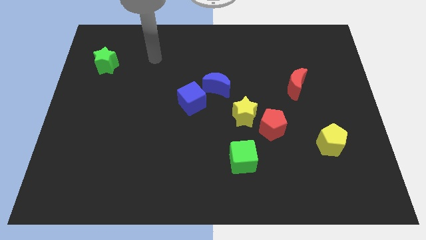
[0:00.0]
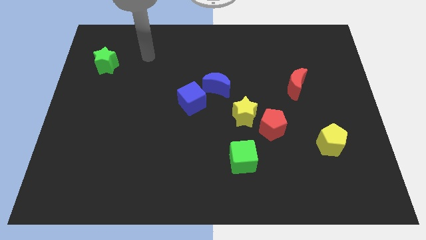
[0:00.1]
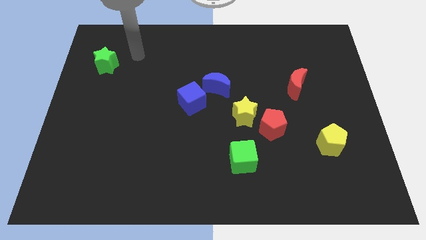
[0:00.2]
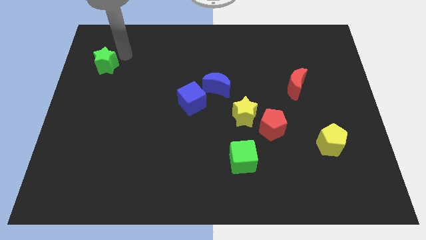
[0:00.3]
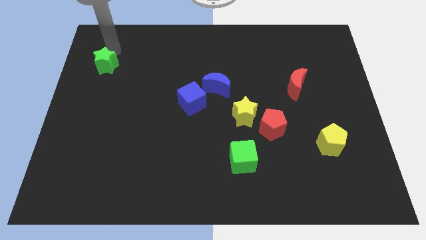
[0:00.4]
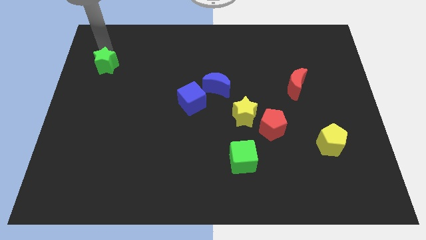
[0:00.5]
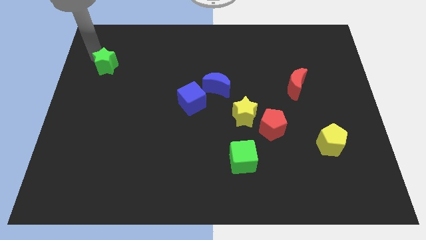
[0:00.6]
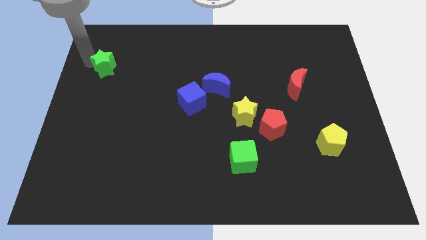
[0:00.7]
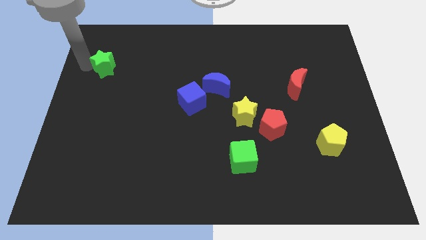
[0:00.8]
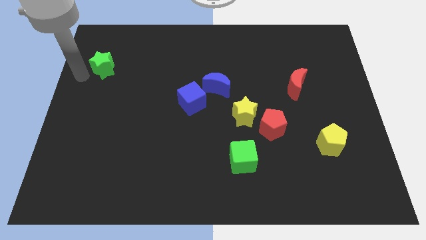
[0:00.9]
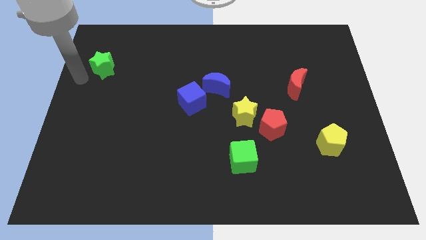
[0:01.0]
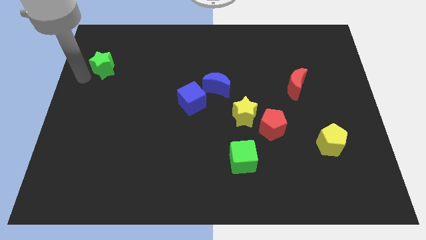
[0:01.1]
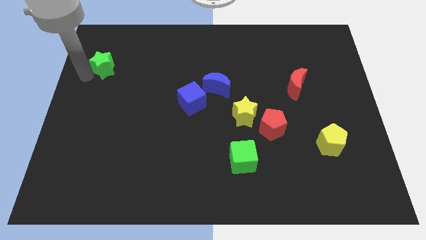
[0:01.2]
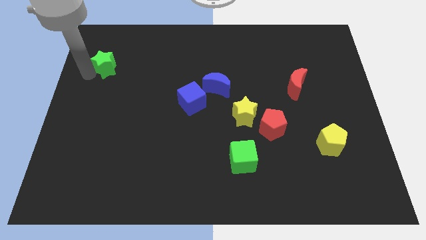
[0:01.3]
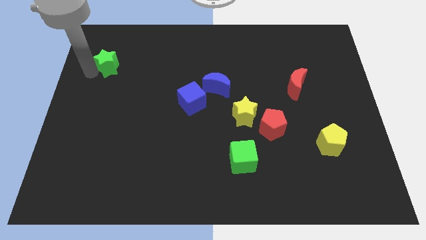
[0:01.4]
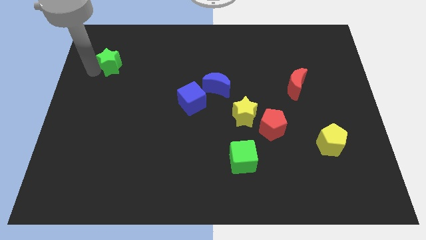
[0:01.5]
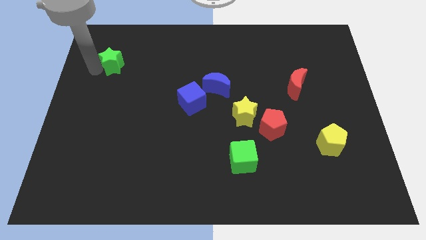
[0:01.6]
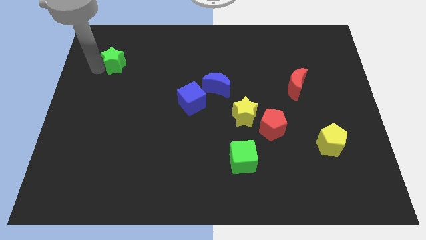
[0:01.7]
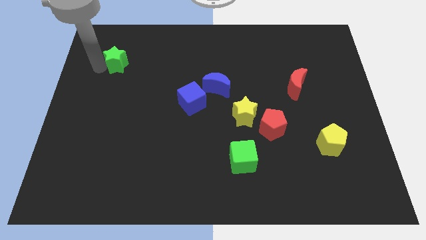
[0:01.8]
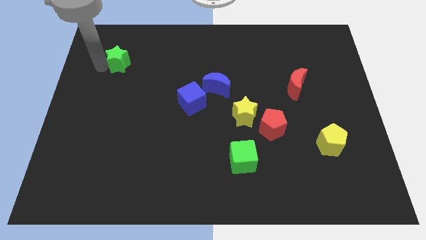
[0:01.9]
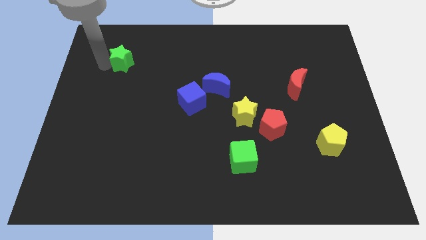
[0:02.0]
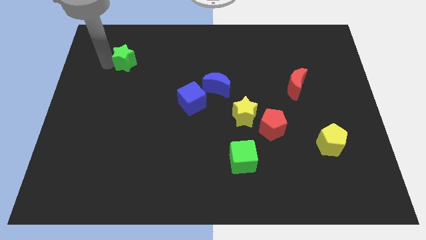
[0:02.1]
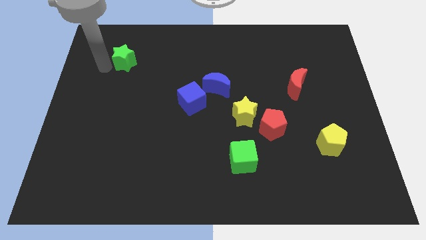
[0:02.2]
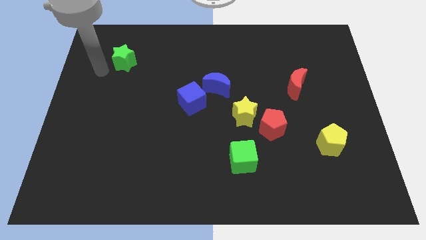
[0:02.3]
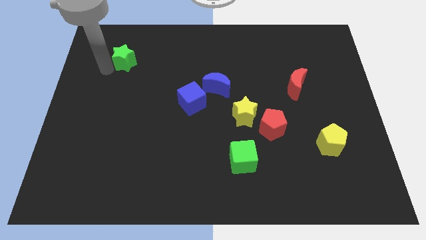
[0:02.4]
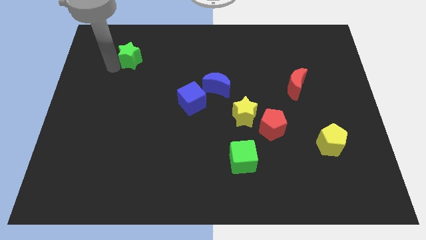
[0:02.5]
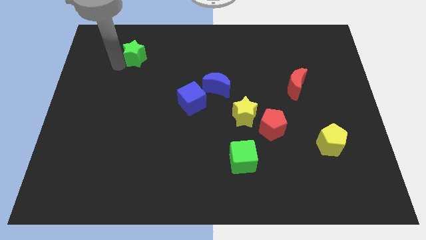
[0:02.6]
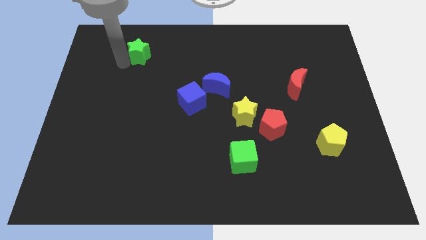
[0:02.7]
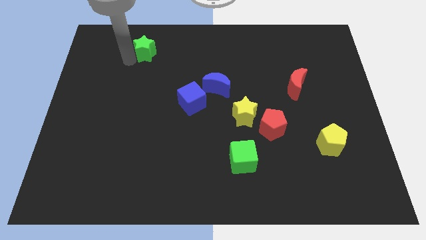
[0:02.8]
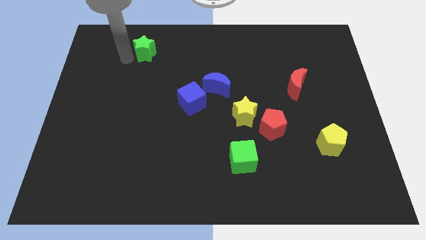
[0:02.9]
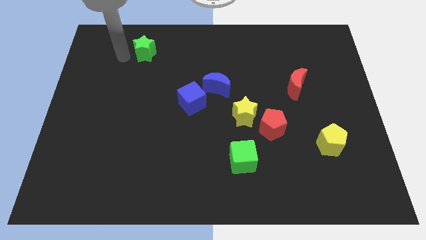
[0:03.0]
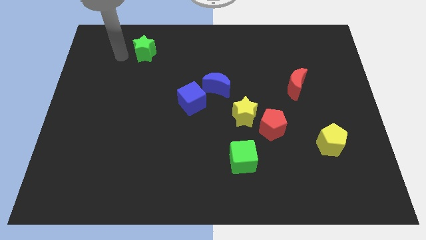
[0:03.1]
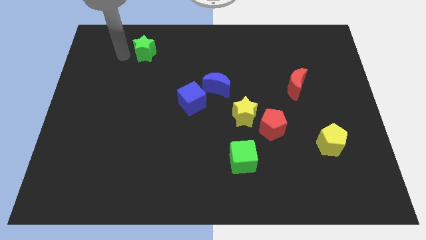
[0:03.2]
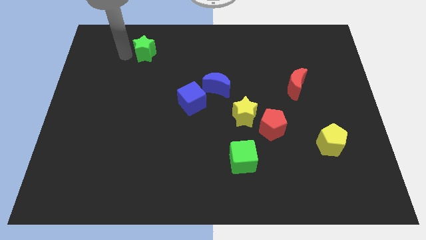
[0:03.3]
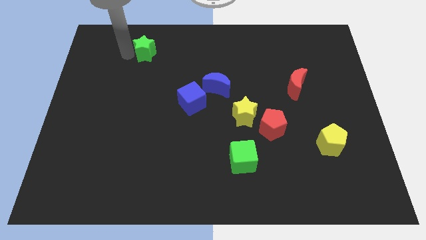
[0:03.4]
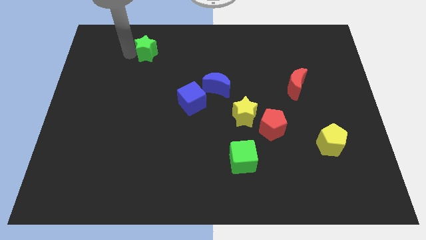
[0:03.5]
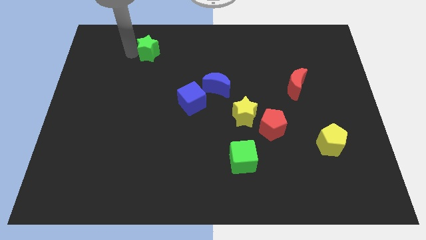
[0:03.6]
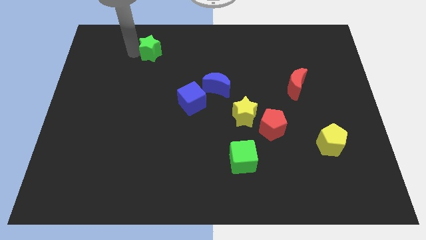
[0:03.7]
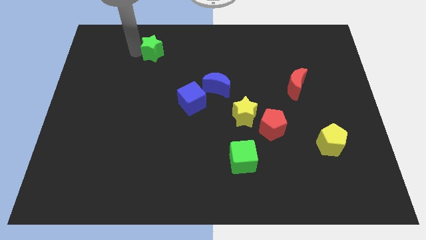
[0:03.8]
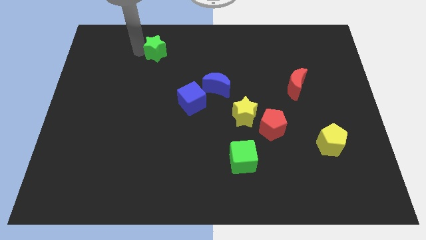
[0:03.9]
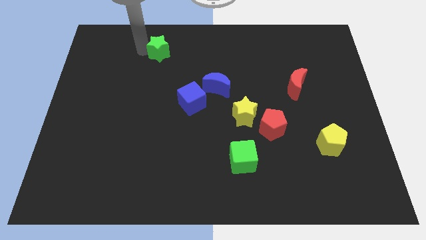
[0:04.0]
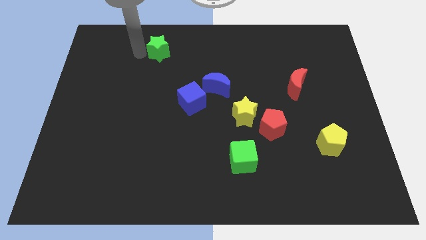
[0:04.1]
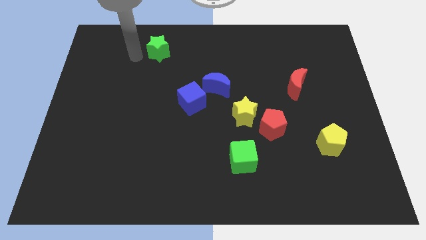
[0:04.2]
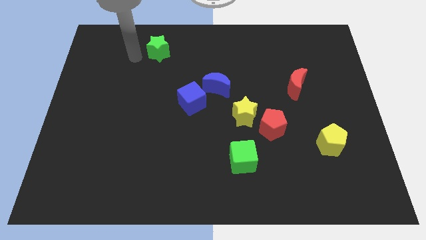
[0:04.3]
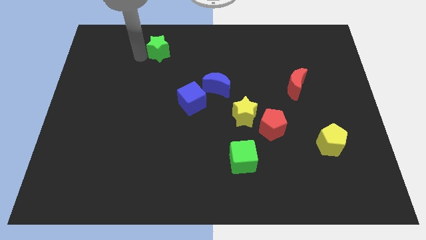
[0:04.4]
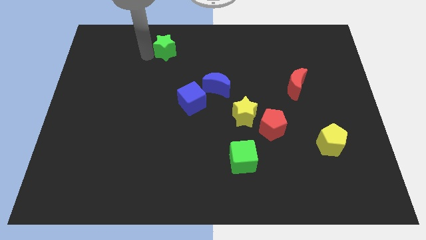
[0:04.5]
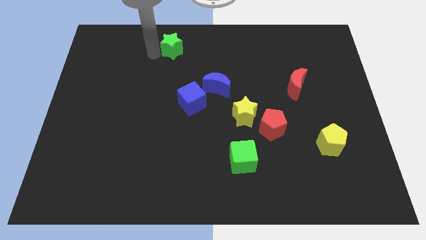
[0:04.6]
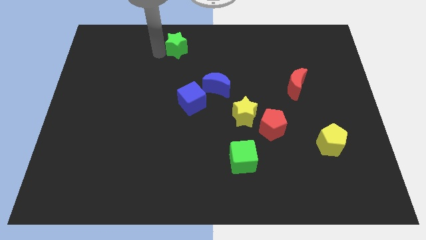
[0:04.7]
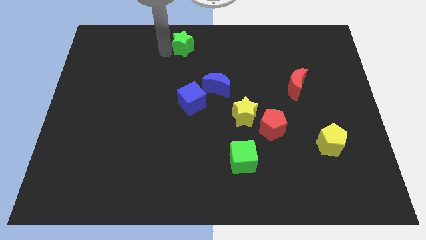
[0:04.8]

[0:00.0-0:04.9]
put the green star to the top

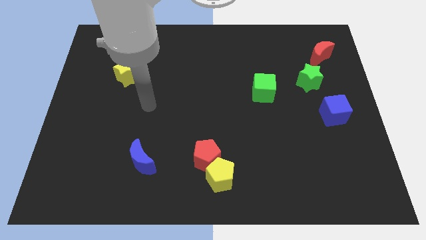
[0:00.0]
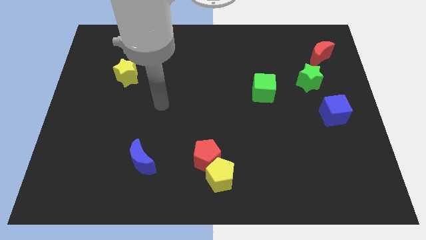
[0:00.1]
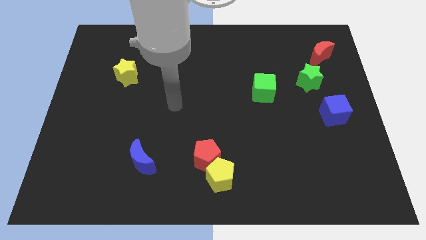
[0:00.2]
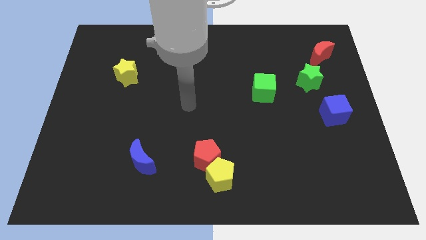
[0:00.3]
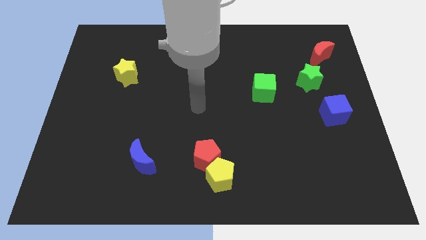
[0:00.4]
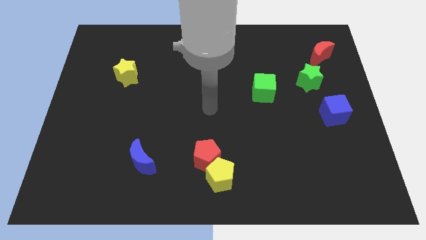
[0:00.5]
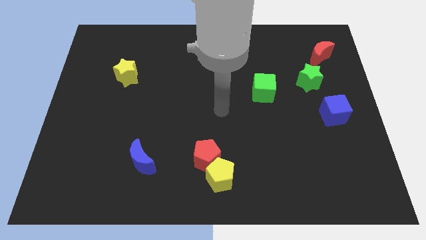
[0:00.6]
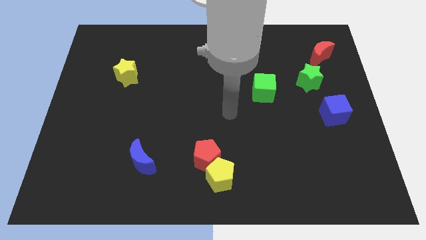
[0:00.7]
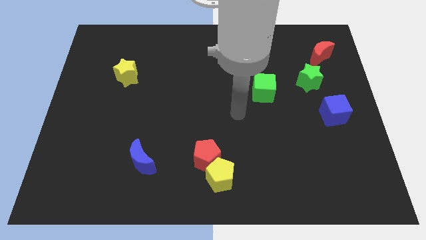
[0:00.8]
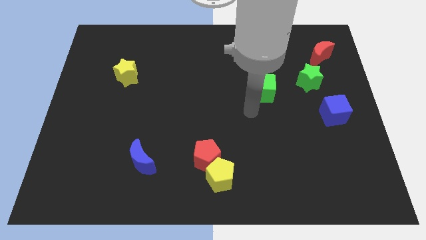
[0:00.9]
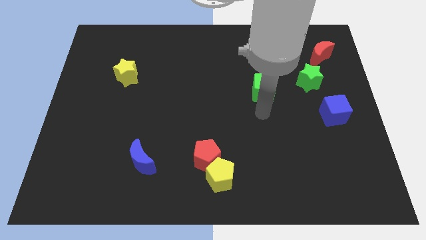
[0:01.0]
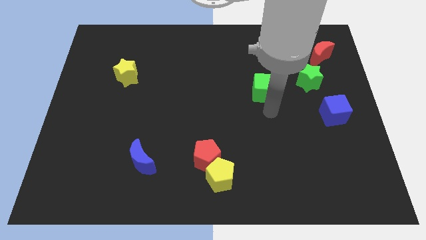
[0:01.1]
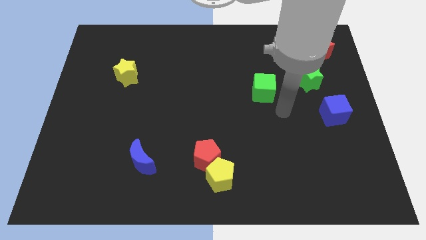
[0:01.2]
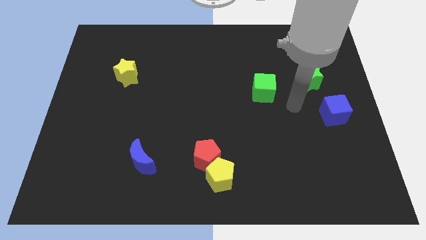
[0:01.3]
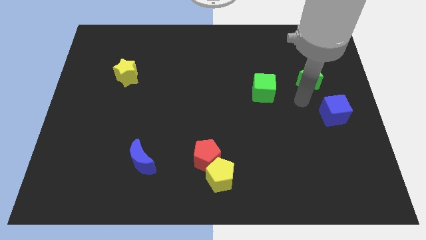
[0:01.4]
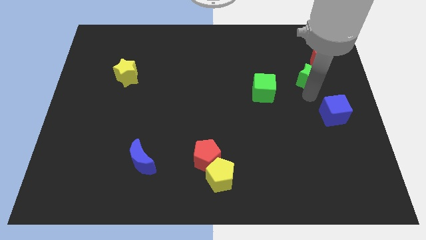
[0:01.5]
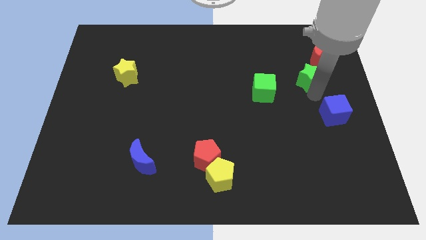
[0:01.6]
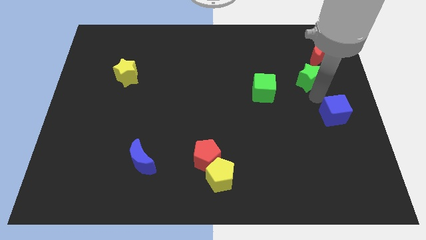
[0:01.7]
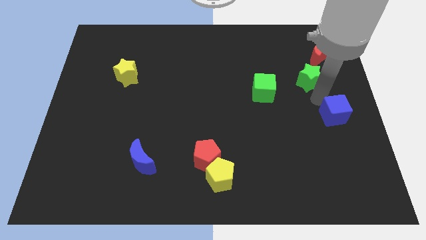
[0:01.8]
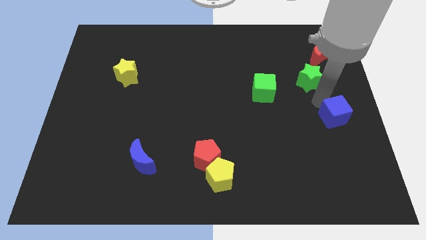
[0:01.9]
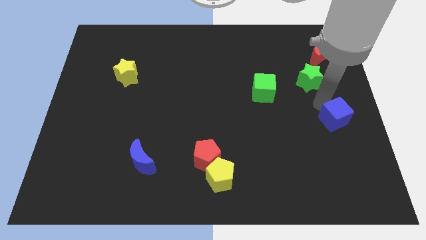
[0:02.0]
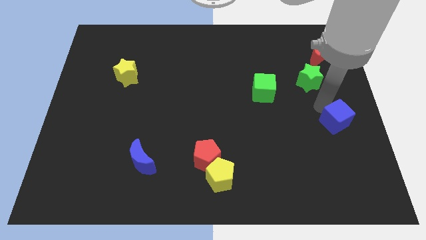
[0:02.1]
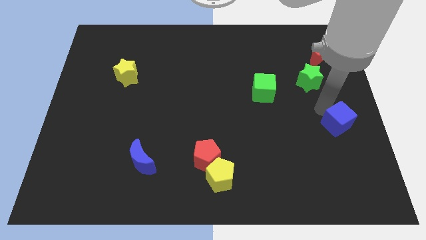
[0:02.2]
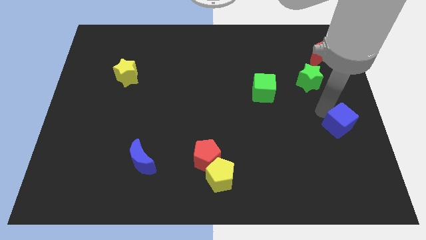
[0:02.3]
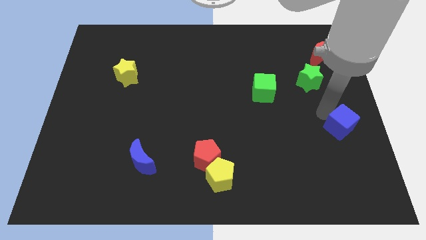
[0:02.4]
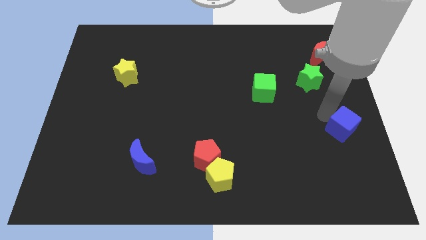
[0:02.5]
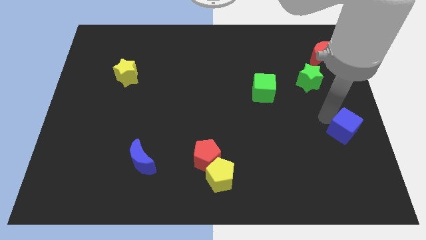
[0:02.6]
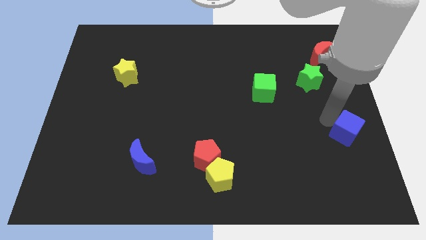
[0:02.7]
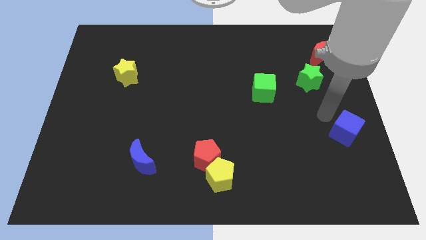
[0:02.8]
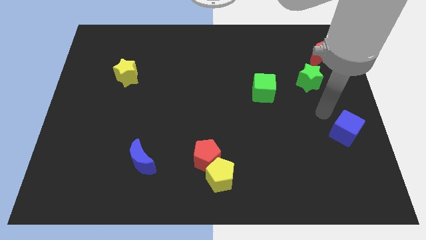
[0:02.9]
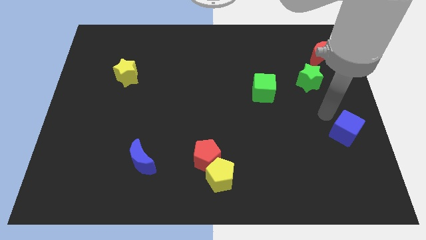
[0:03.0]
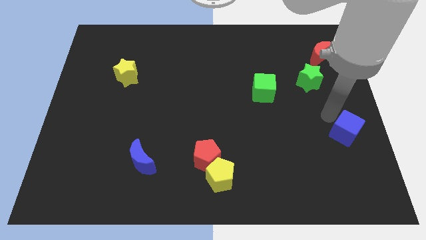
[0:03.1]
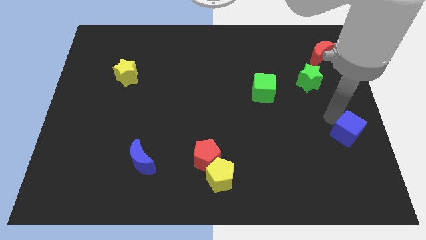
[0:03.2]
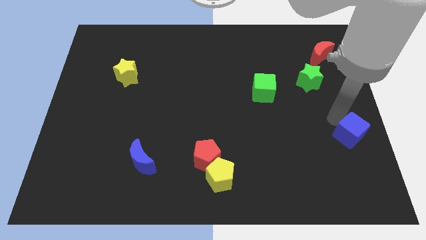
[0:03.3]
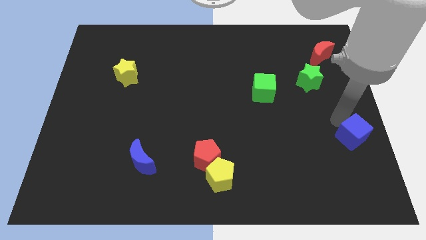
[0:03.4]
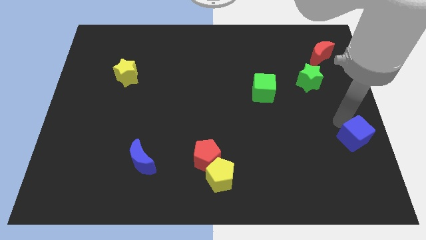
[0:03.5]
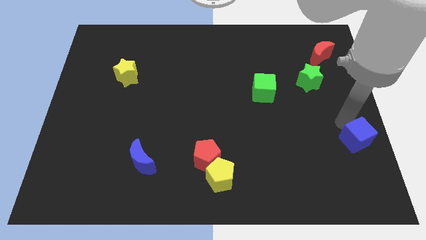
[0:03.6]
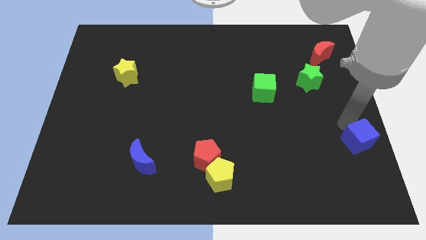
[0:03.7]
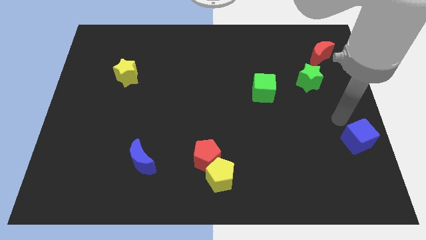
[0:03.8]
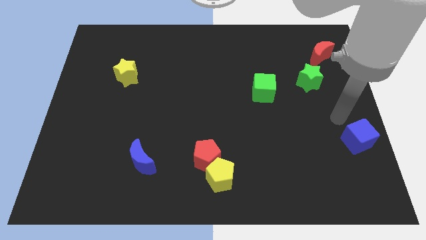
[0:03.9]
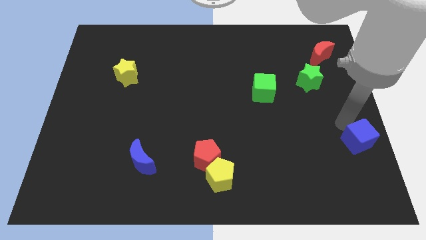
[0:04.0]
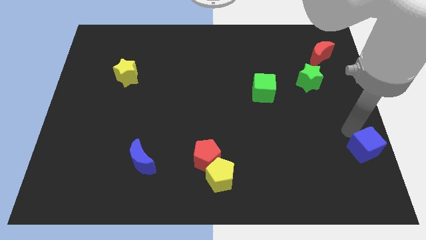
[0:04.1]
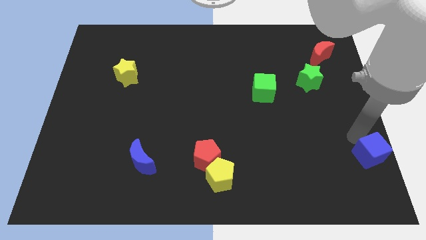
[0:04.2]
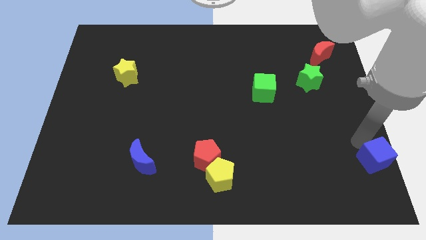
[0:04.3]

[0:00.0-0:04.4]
slide the blue cube to the bottom right
